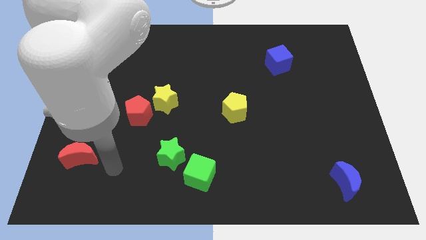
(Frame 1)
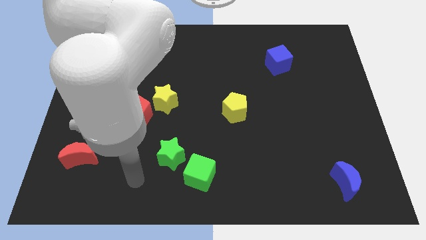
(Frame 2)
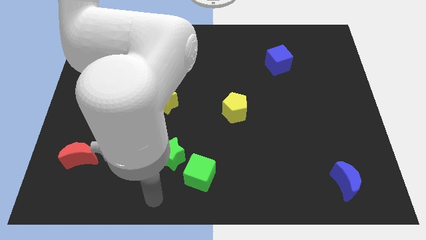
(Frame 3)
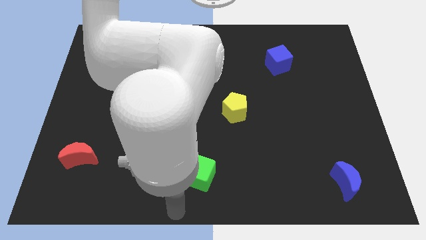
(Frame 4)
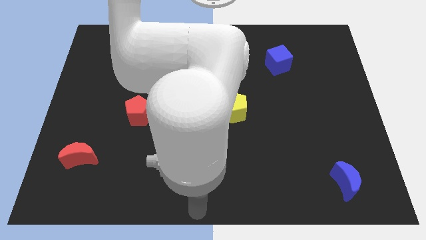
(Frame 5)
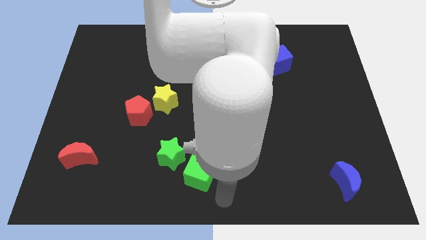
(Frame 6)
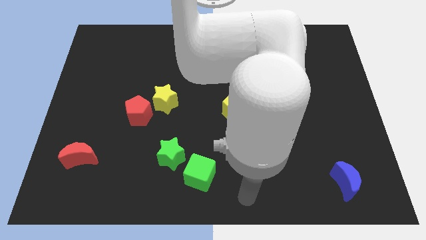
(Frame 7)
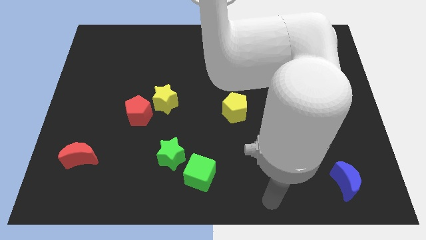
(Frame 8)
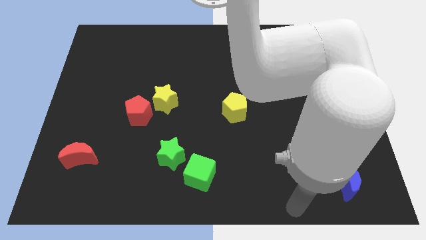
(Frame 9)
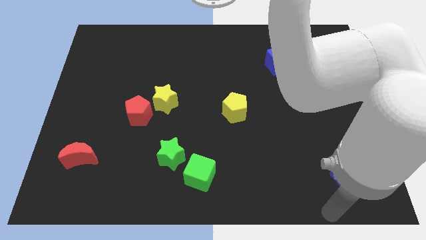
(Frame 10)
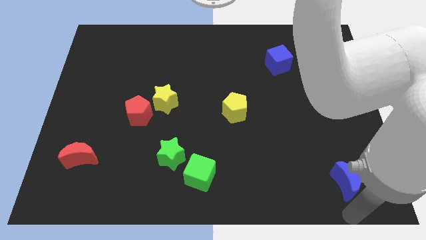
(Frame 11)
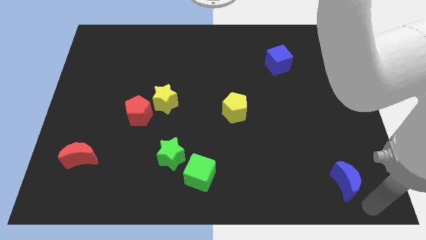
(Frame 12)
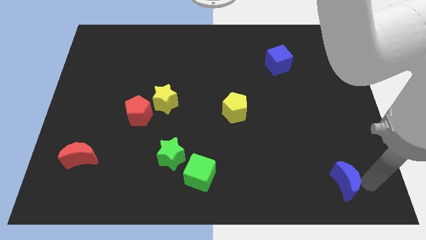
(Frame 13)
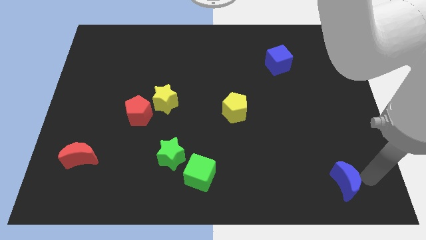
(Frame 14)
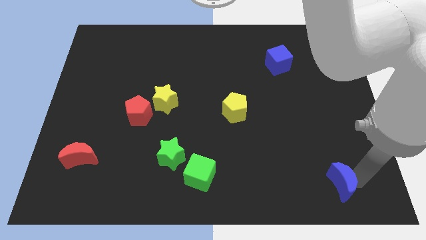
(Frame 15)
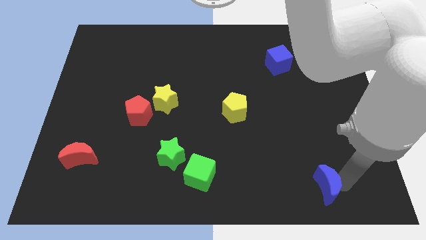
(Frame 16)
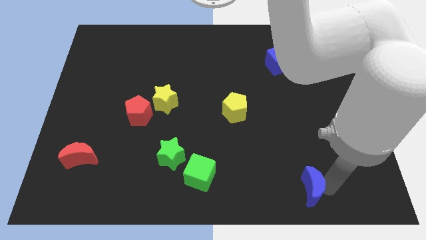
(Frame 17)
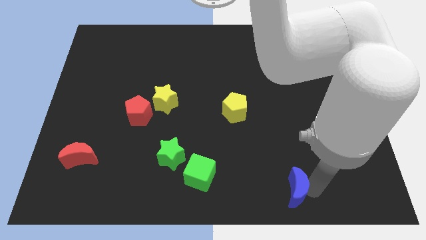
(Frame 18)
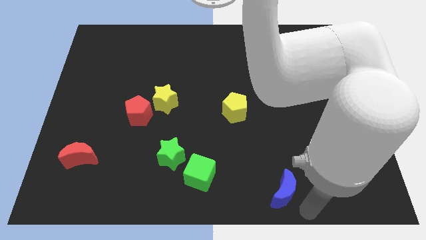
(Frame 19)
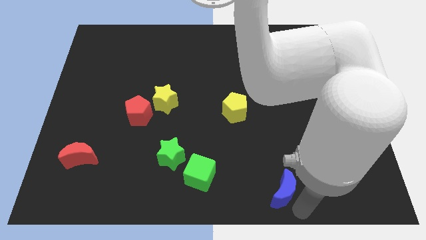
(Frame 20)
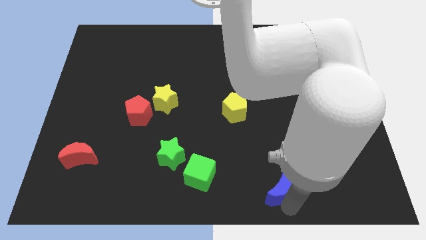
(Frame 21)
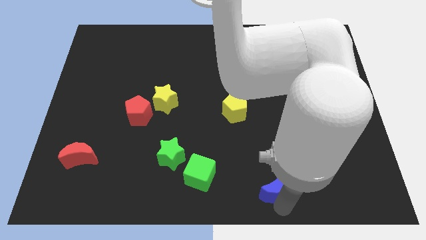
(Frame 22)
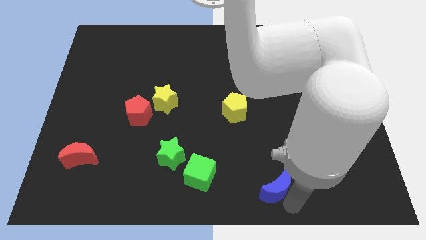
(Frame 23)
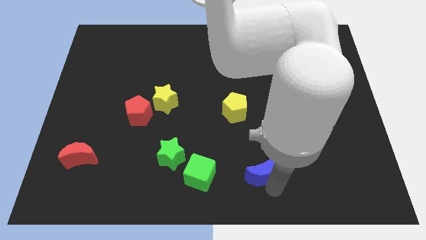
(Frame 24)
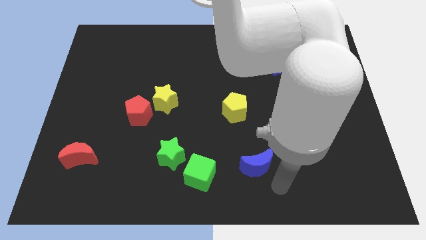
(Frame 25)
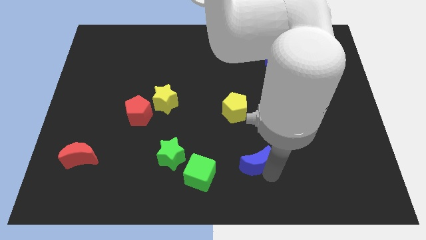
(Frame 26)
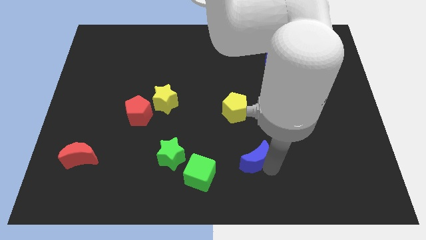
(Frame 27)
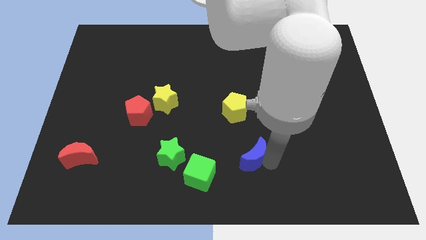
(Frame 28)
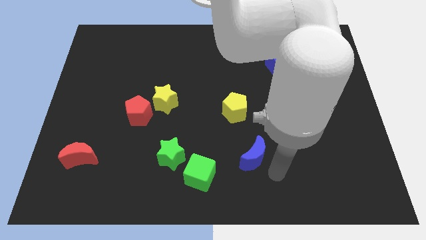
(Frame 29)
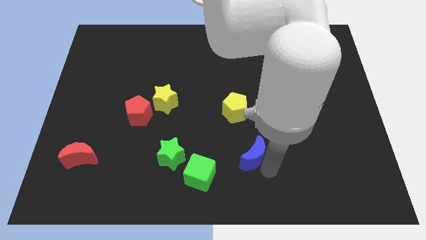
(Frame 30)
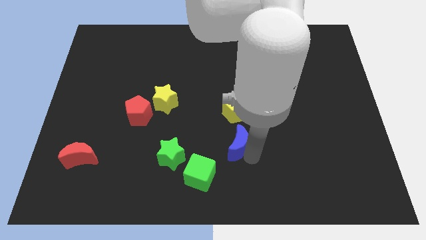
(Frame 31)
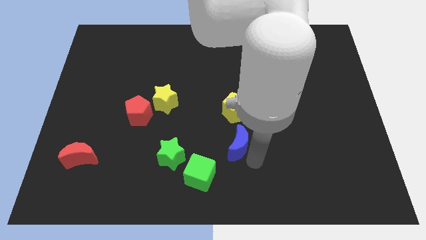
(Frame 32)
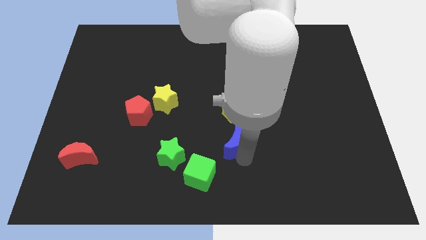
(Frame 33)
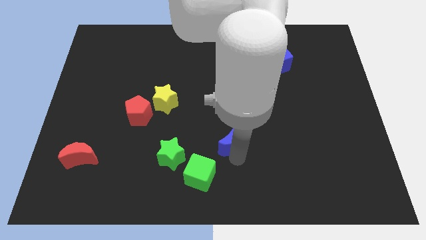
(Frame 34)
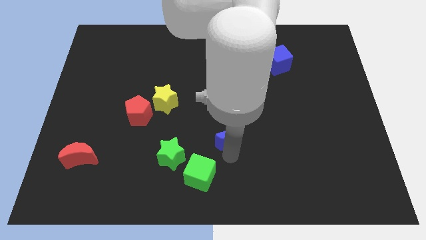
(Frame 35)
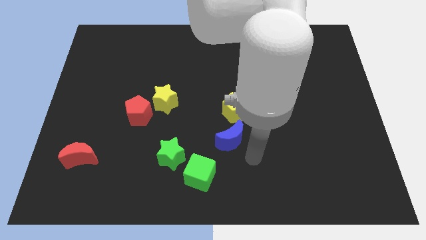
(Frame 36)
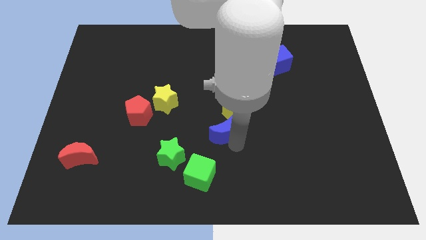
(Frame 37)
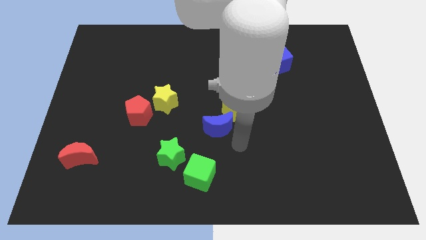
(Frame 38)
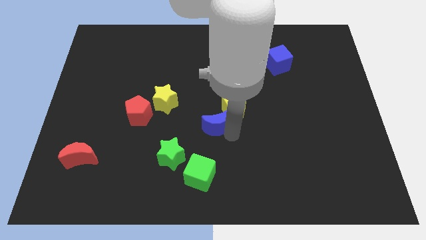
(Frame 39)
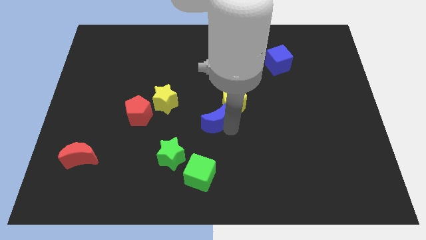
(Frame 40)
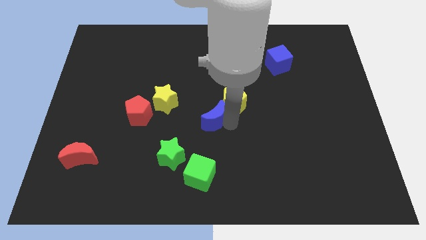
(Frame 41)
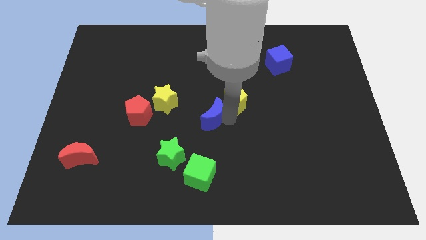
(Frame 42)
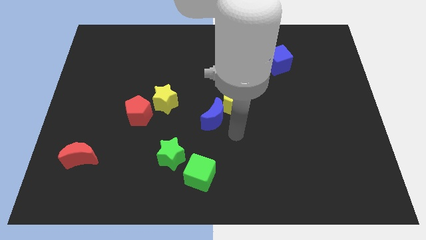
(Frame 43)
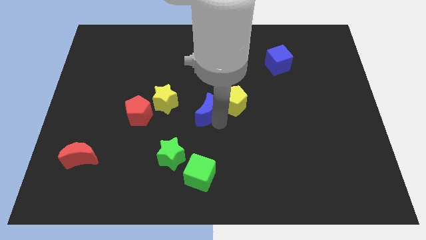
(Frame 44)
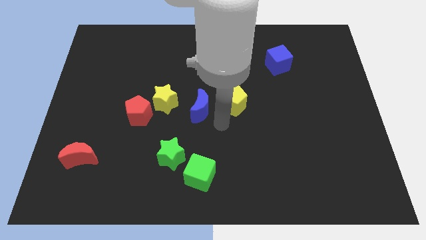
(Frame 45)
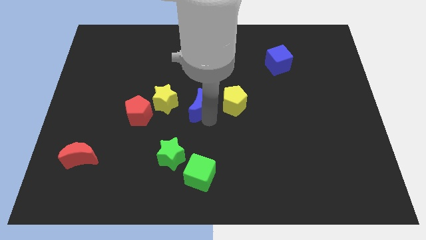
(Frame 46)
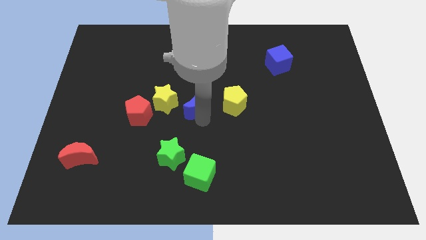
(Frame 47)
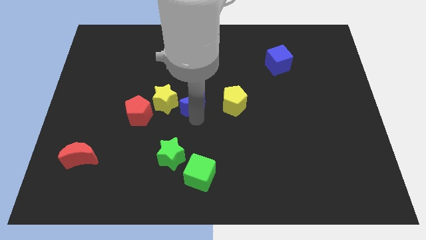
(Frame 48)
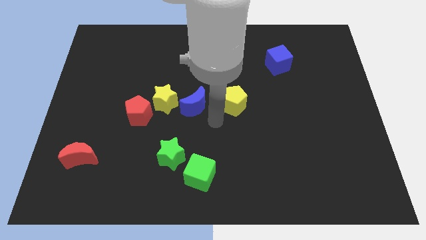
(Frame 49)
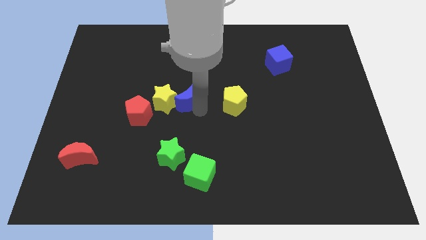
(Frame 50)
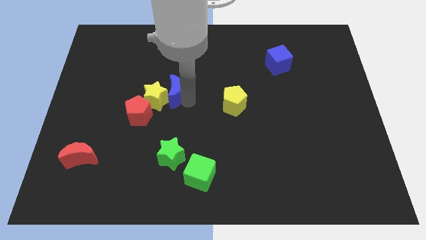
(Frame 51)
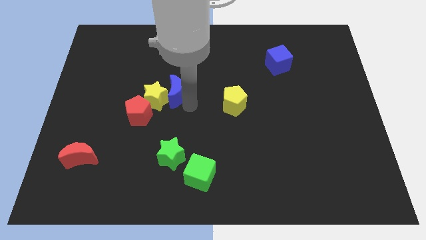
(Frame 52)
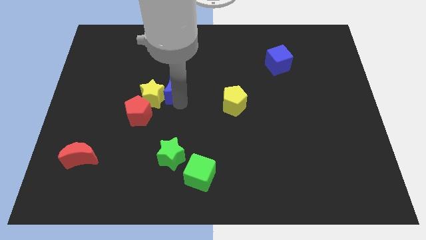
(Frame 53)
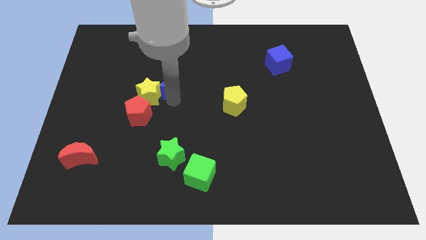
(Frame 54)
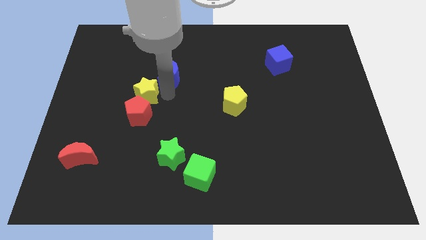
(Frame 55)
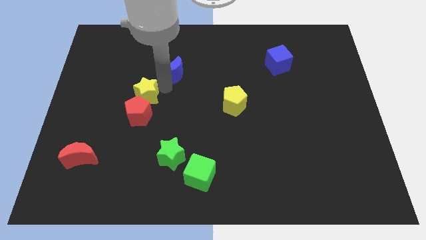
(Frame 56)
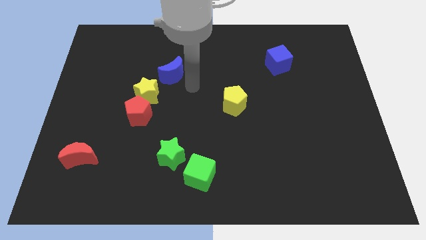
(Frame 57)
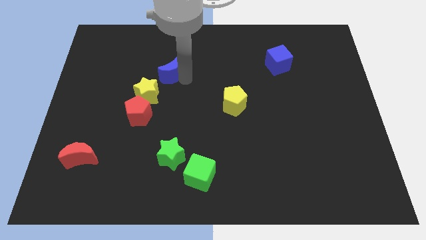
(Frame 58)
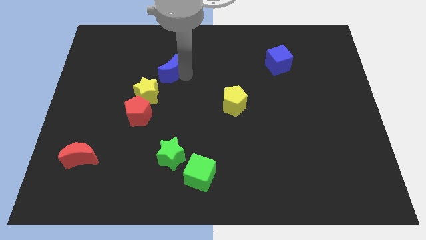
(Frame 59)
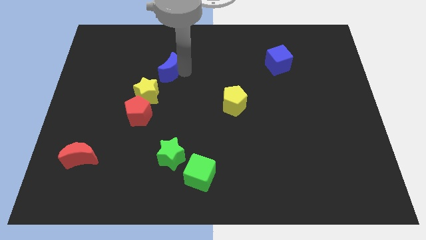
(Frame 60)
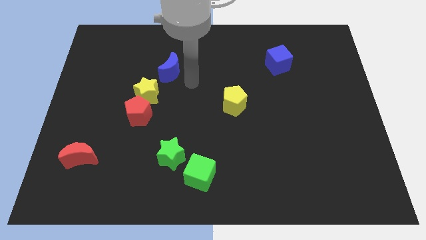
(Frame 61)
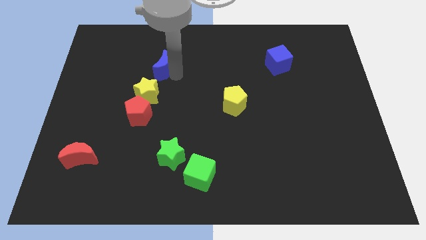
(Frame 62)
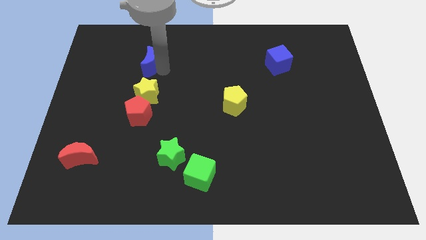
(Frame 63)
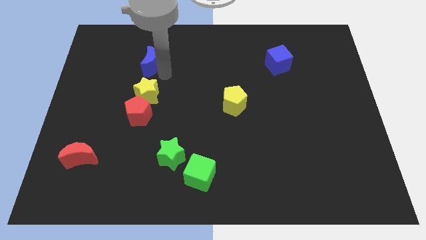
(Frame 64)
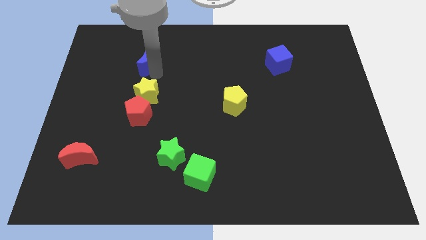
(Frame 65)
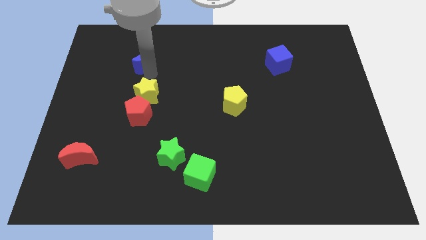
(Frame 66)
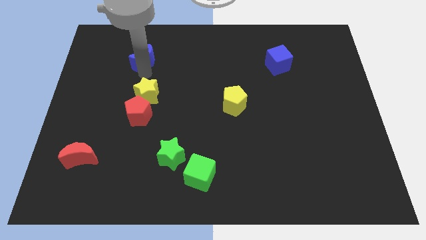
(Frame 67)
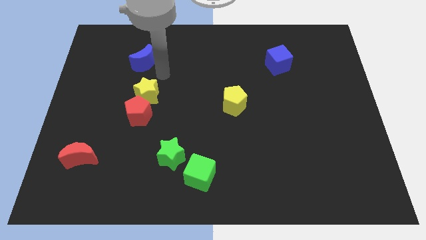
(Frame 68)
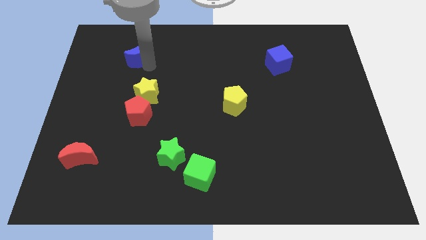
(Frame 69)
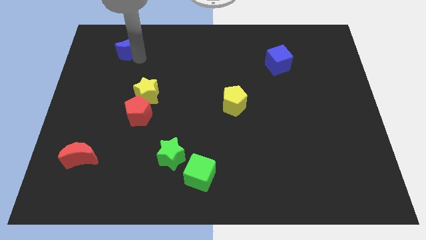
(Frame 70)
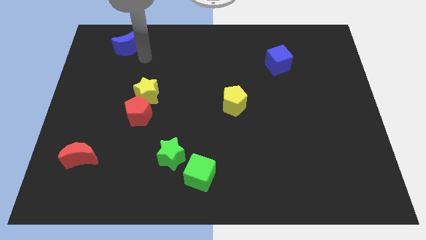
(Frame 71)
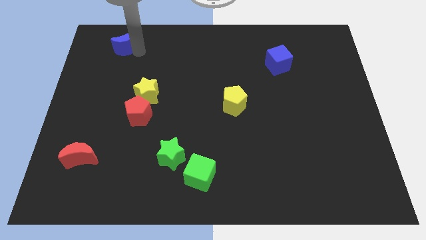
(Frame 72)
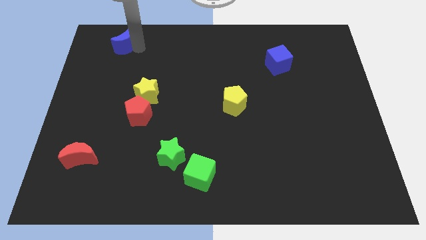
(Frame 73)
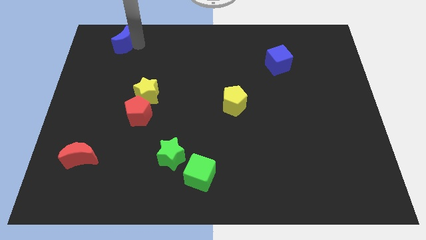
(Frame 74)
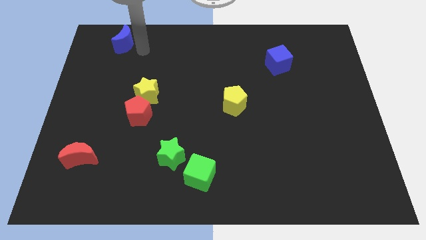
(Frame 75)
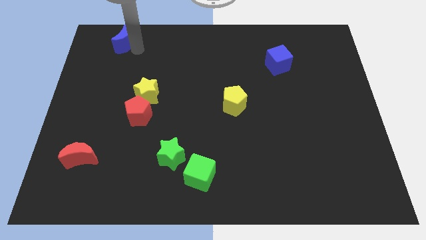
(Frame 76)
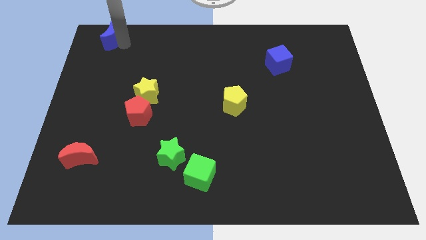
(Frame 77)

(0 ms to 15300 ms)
move the blue moon to the top left of the board
